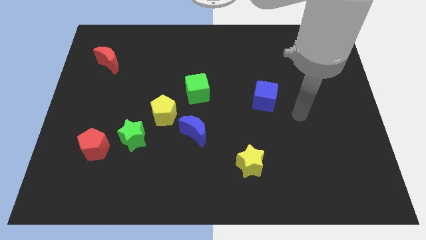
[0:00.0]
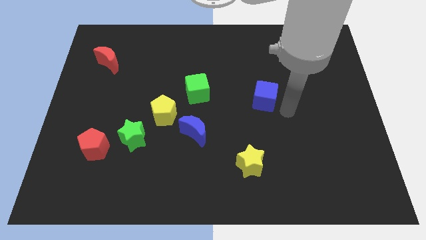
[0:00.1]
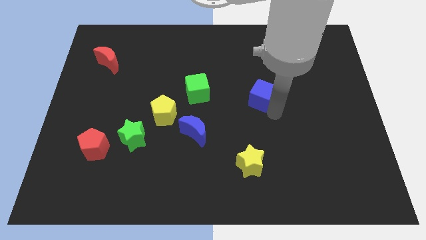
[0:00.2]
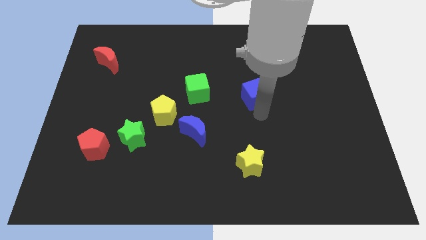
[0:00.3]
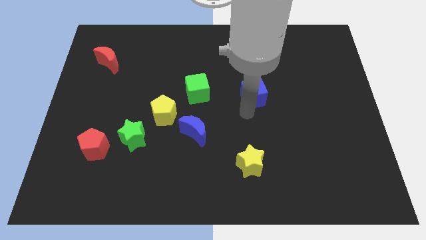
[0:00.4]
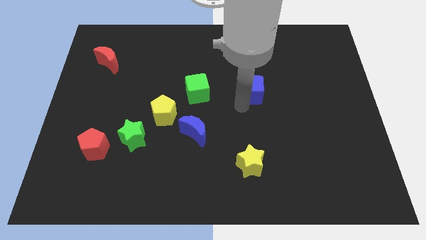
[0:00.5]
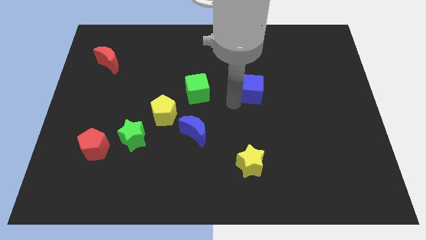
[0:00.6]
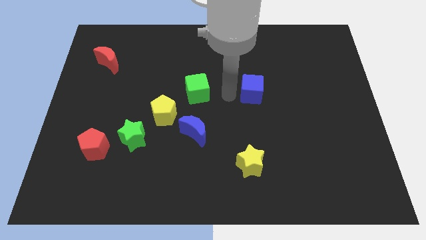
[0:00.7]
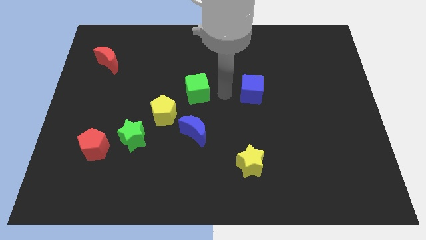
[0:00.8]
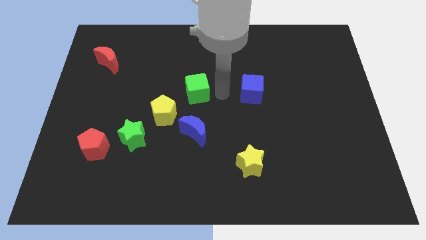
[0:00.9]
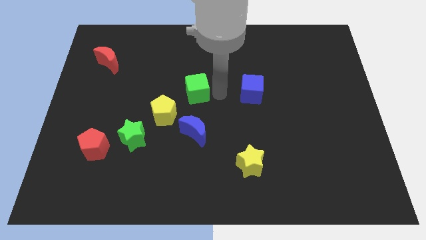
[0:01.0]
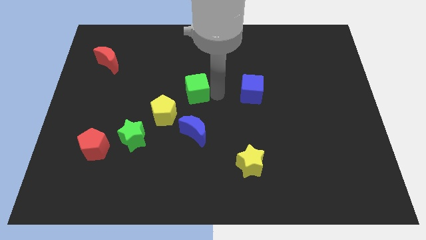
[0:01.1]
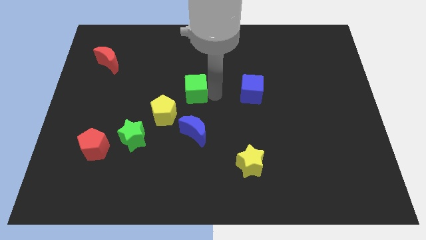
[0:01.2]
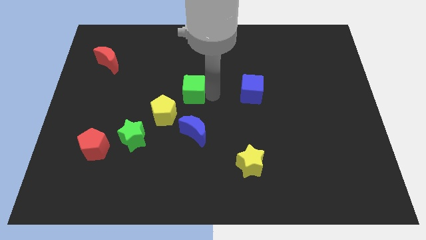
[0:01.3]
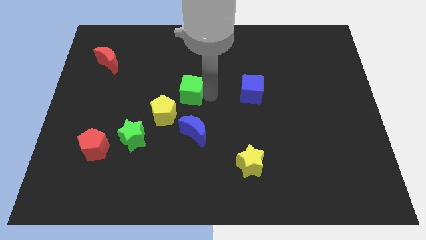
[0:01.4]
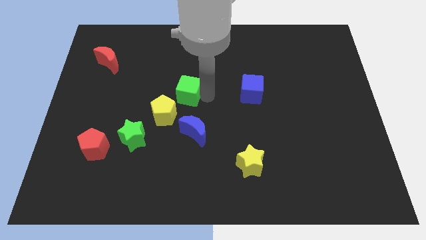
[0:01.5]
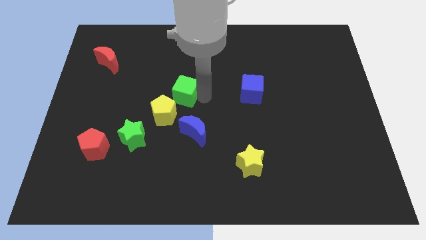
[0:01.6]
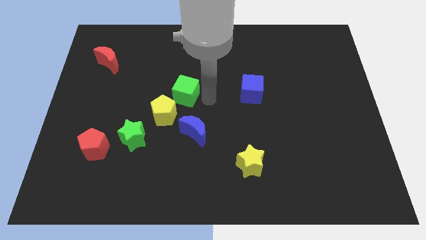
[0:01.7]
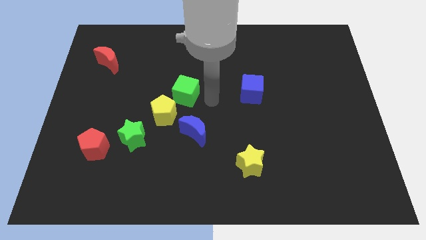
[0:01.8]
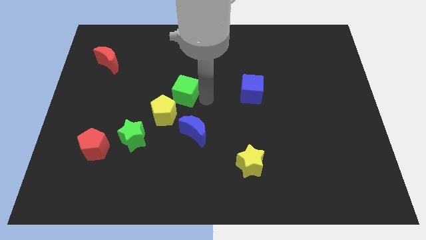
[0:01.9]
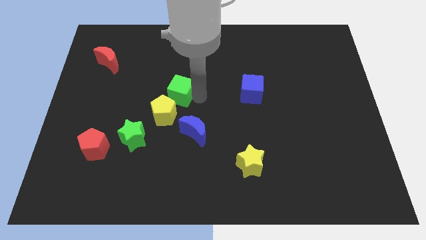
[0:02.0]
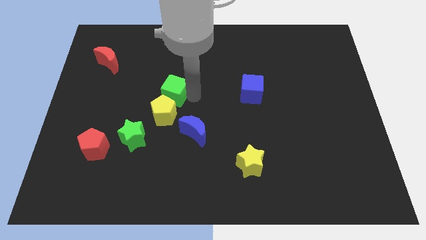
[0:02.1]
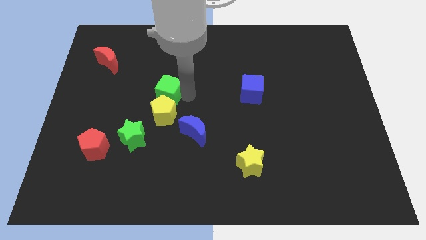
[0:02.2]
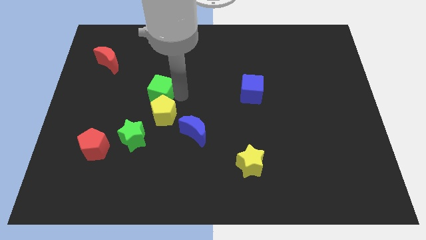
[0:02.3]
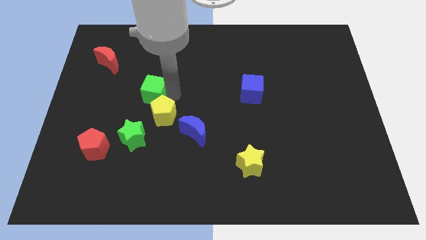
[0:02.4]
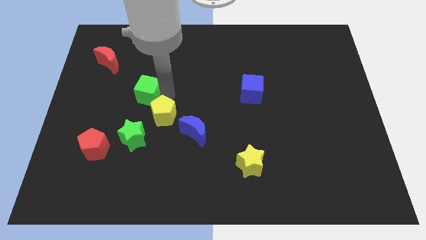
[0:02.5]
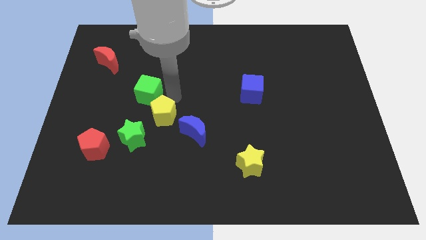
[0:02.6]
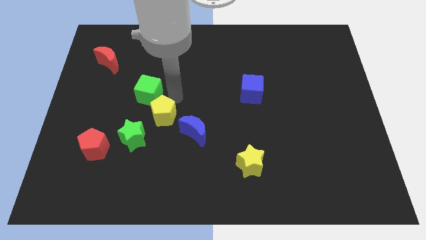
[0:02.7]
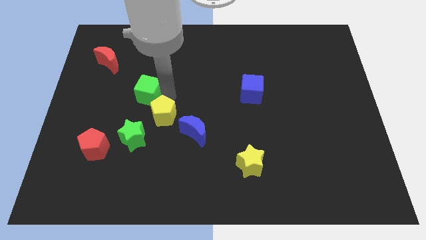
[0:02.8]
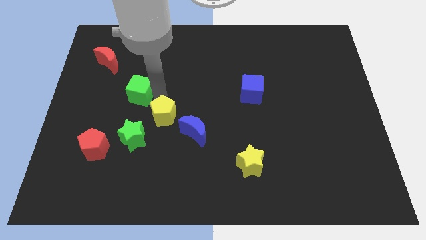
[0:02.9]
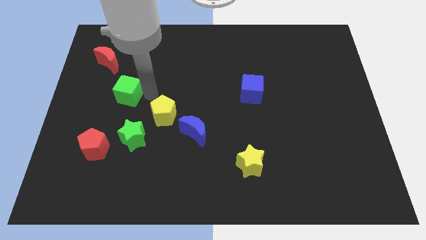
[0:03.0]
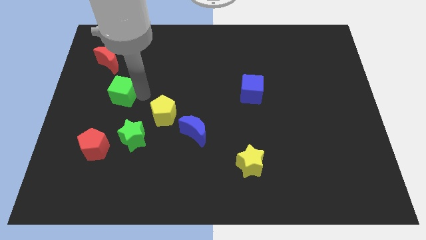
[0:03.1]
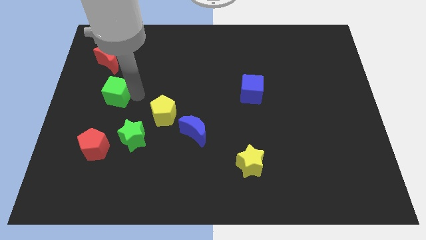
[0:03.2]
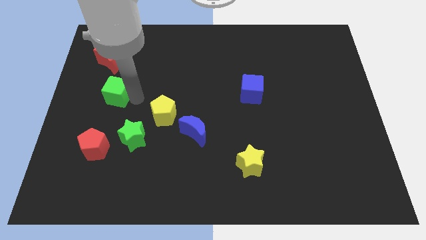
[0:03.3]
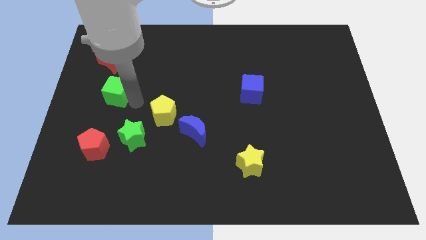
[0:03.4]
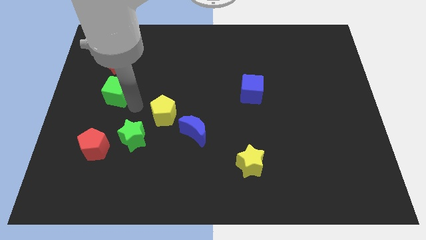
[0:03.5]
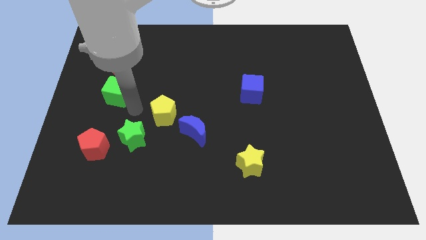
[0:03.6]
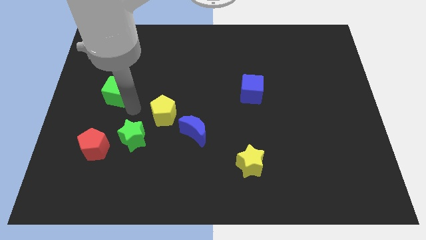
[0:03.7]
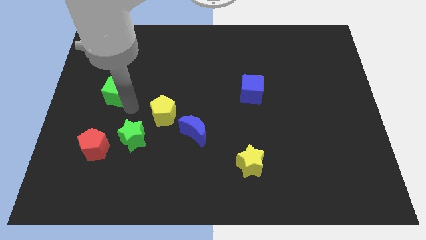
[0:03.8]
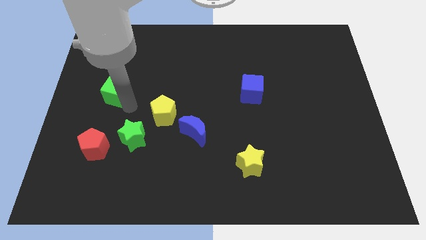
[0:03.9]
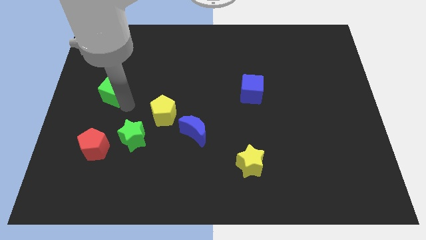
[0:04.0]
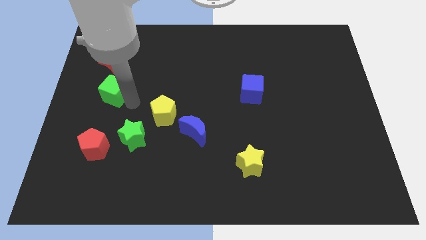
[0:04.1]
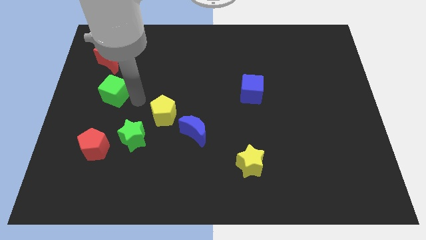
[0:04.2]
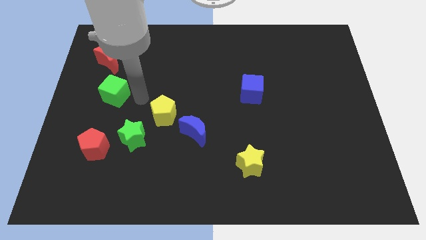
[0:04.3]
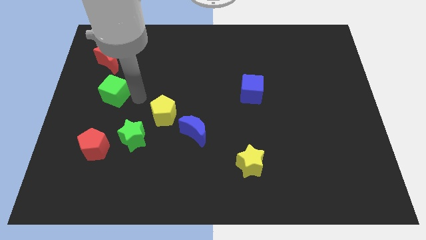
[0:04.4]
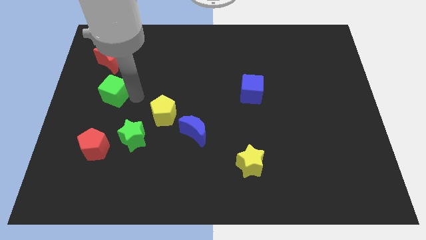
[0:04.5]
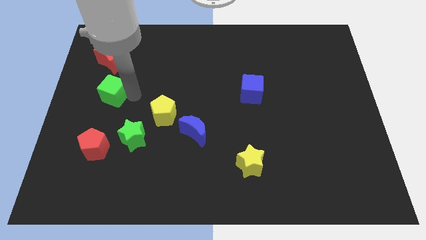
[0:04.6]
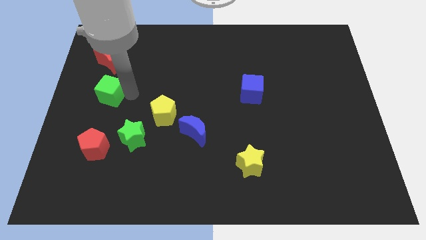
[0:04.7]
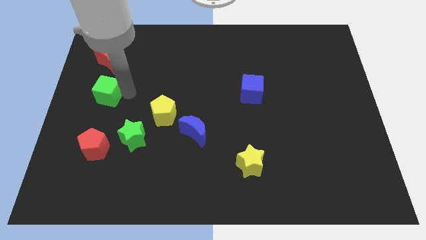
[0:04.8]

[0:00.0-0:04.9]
move the green cube to the center left

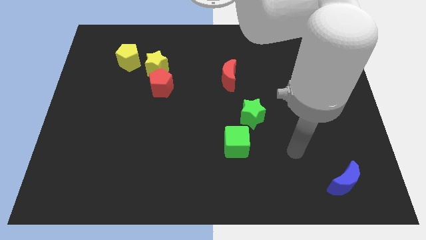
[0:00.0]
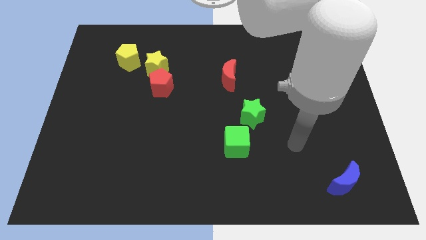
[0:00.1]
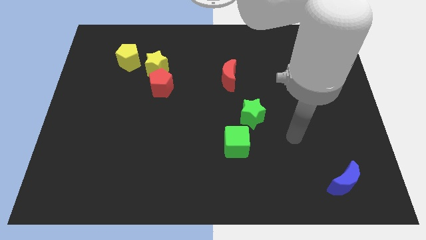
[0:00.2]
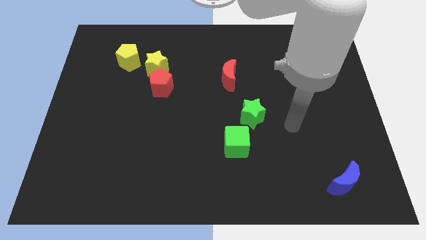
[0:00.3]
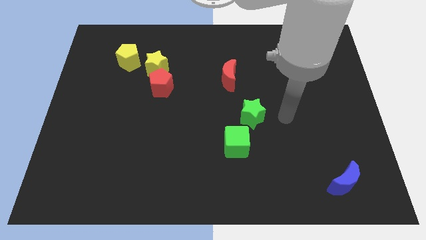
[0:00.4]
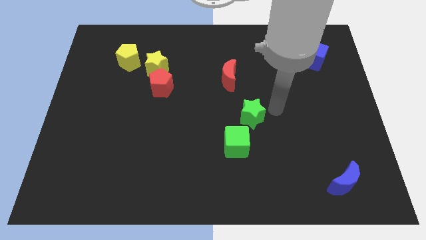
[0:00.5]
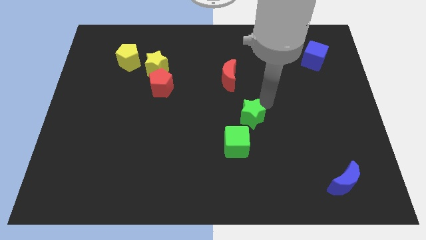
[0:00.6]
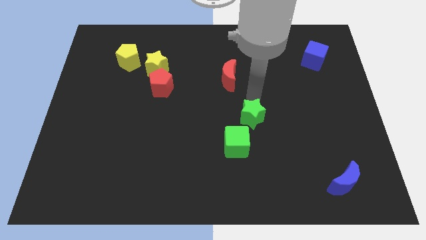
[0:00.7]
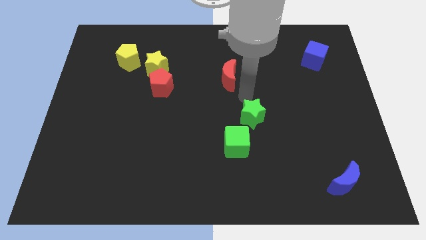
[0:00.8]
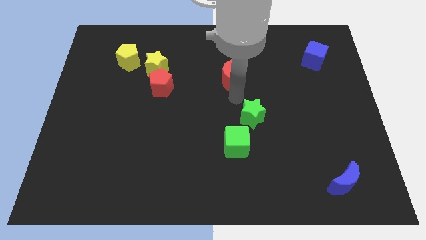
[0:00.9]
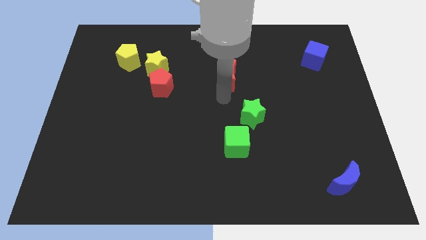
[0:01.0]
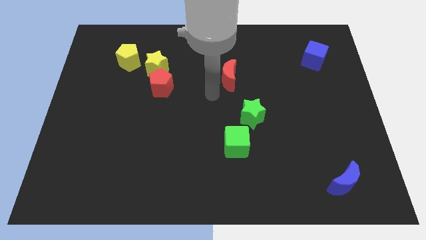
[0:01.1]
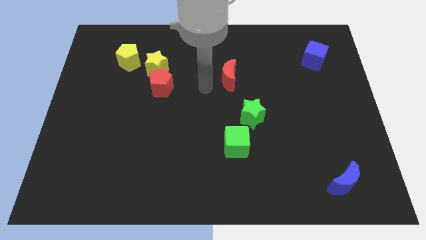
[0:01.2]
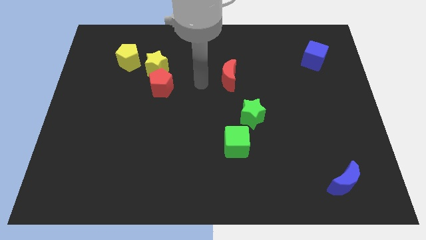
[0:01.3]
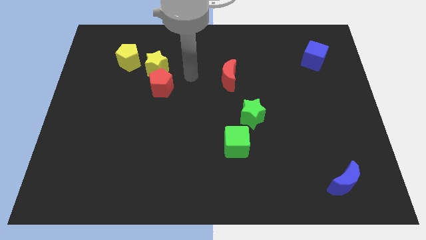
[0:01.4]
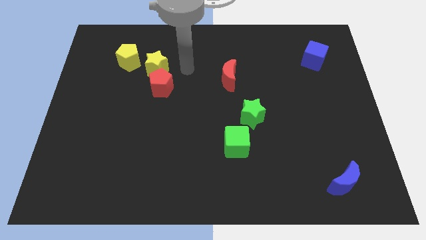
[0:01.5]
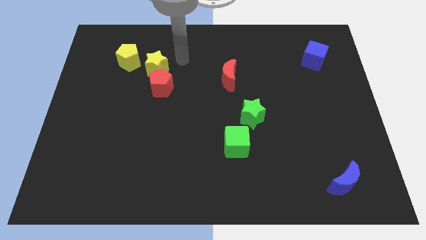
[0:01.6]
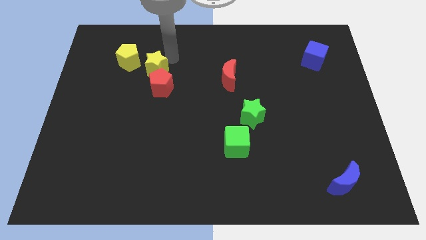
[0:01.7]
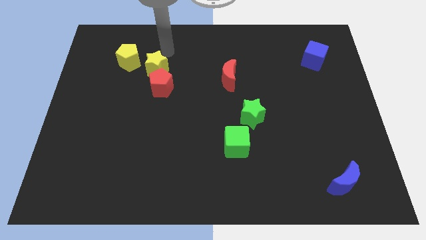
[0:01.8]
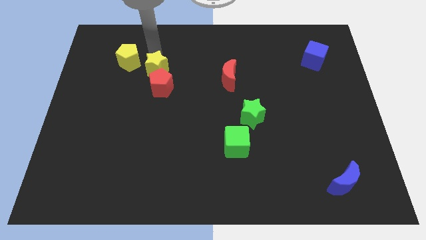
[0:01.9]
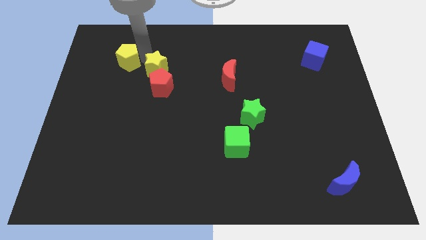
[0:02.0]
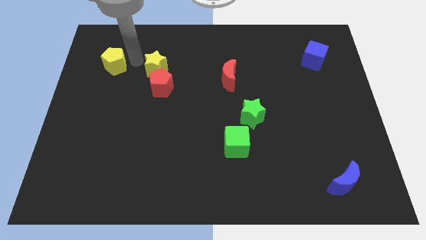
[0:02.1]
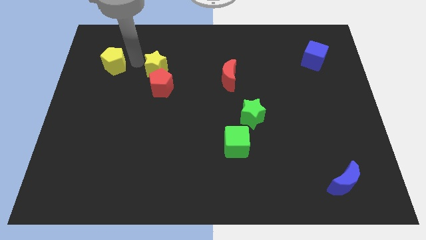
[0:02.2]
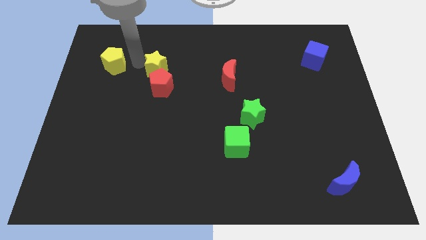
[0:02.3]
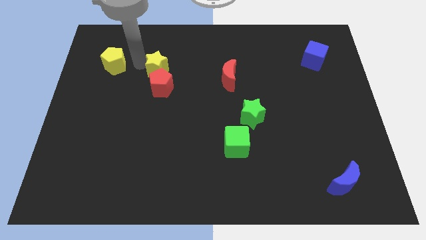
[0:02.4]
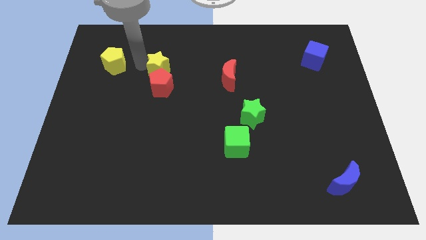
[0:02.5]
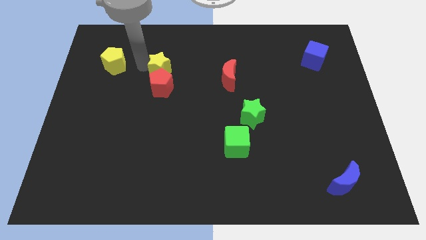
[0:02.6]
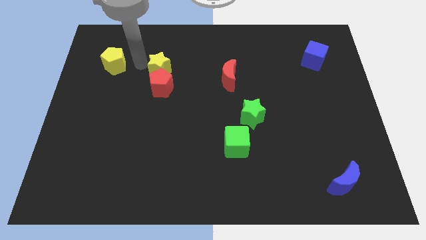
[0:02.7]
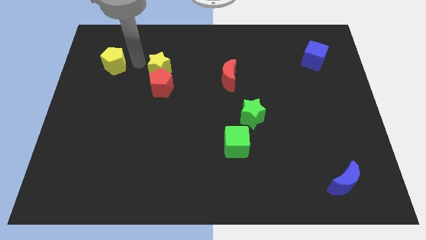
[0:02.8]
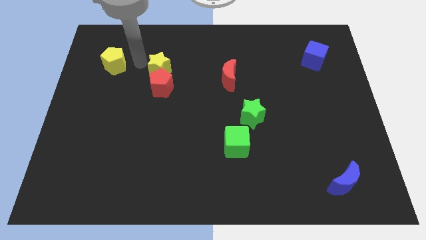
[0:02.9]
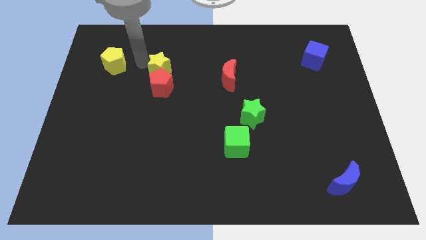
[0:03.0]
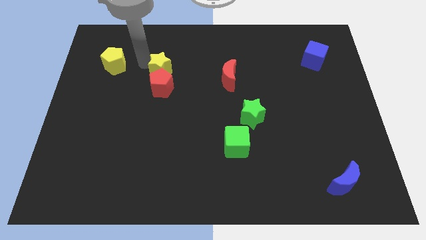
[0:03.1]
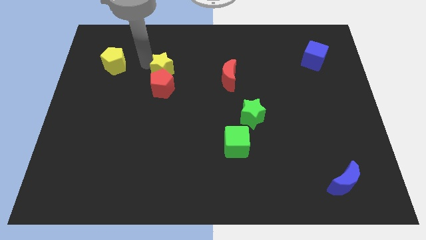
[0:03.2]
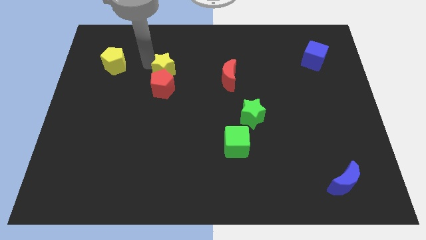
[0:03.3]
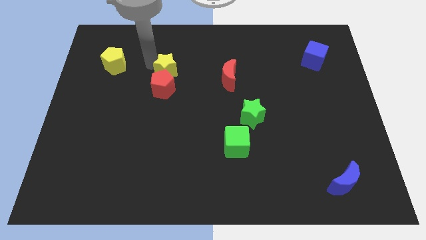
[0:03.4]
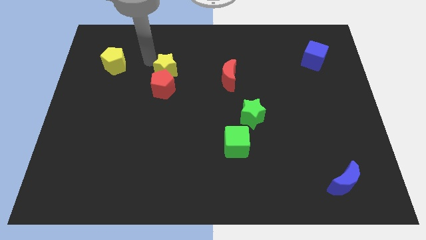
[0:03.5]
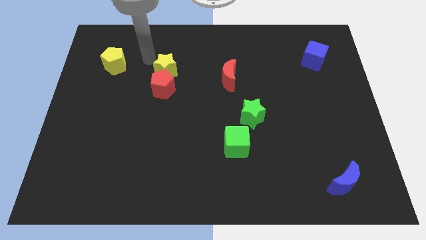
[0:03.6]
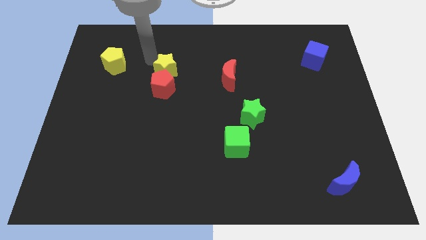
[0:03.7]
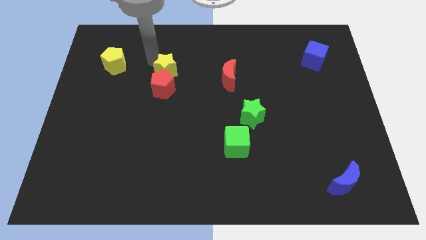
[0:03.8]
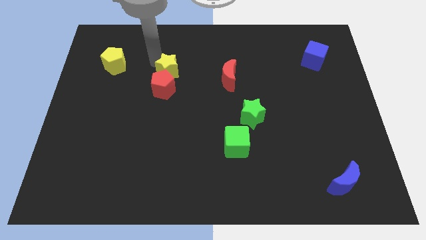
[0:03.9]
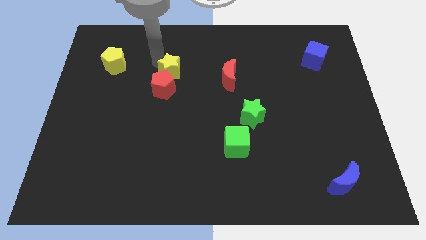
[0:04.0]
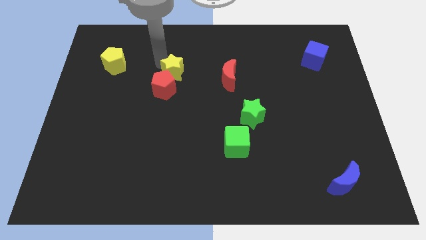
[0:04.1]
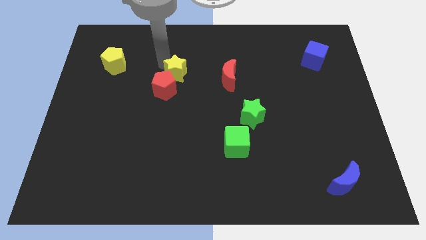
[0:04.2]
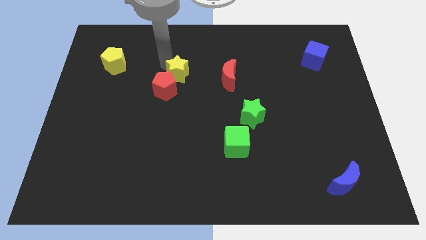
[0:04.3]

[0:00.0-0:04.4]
put the yellow star to the center of the board
